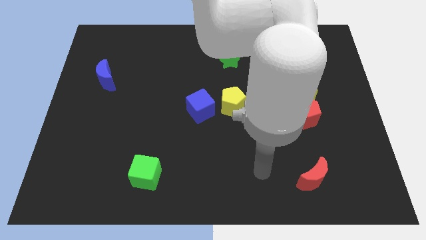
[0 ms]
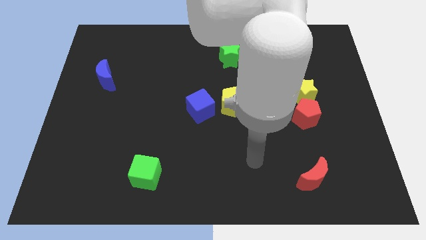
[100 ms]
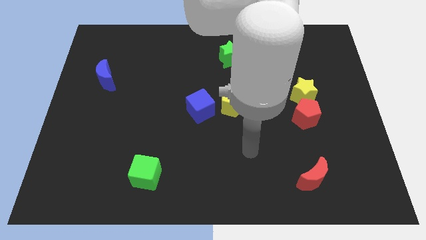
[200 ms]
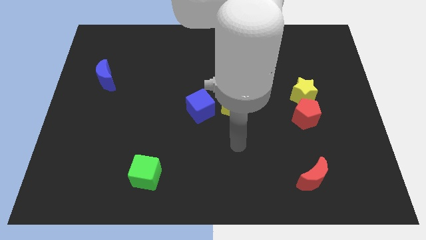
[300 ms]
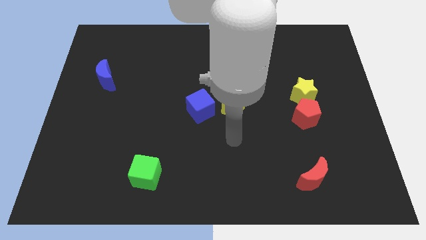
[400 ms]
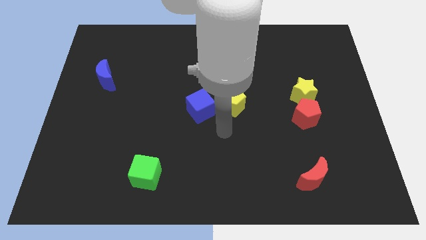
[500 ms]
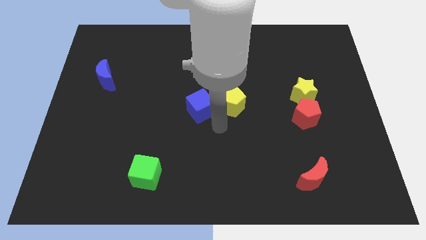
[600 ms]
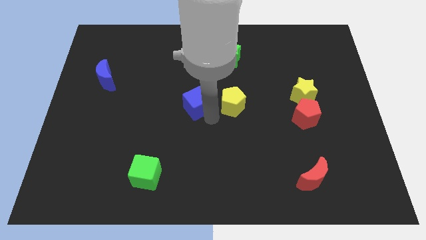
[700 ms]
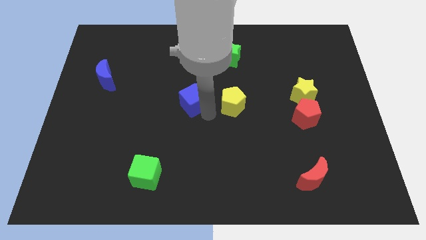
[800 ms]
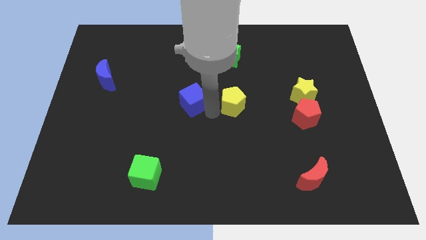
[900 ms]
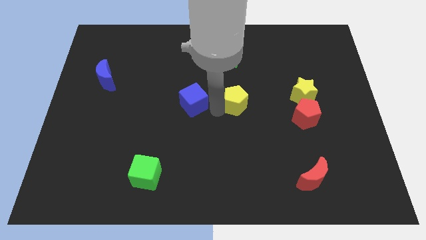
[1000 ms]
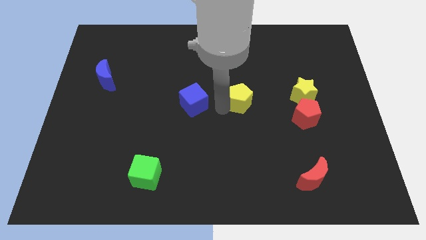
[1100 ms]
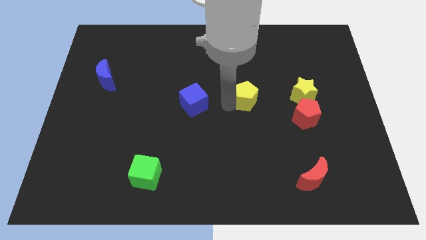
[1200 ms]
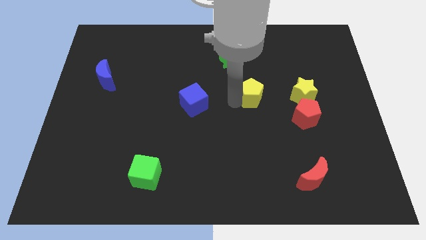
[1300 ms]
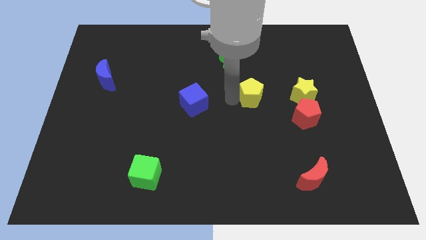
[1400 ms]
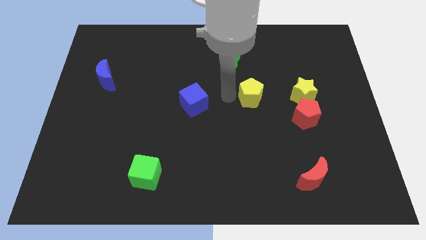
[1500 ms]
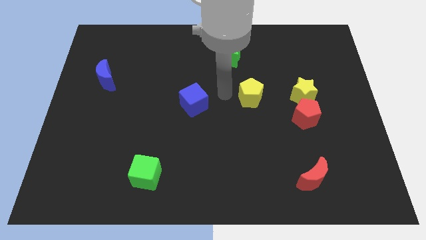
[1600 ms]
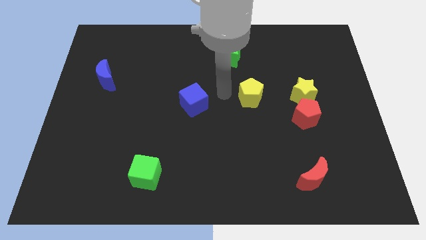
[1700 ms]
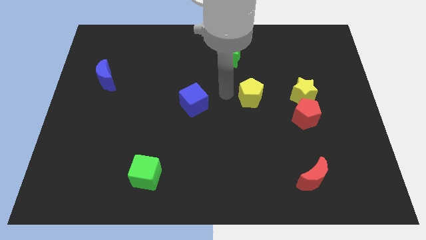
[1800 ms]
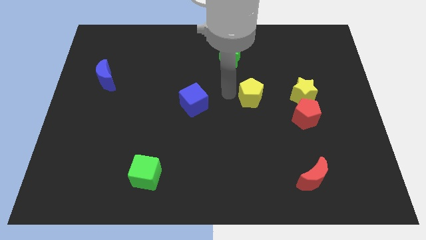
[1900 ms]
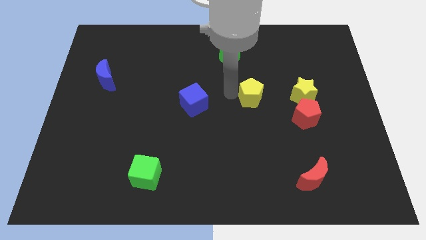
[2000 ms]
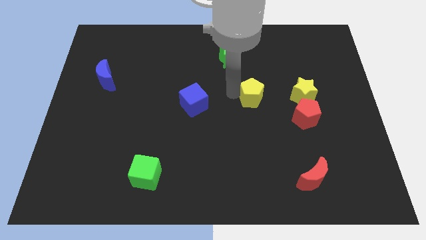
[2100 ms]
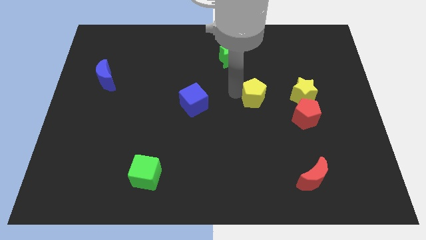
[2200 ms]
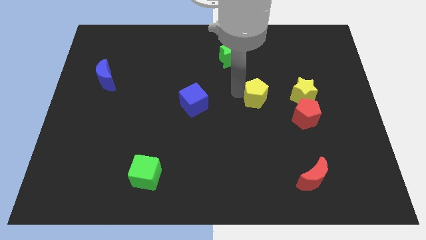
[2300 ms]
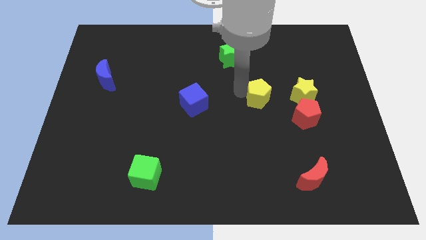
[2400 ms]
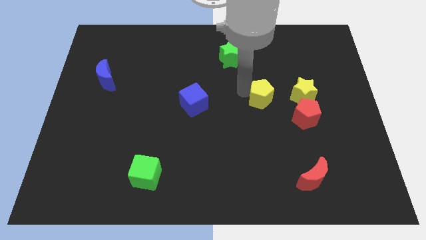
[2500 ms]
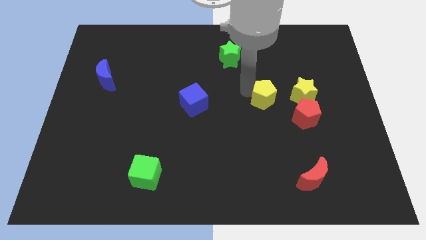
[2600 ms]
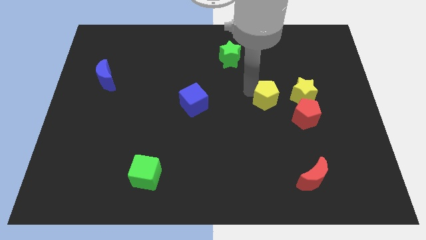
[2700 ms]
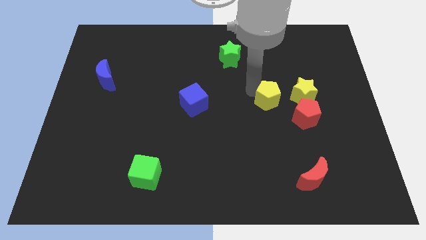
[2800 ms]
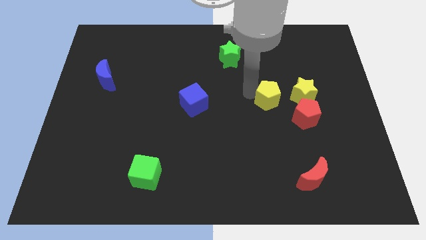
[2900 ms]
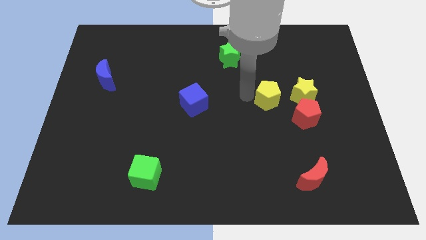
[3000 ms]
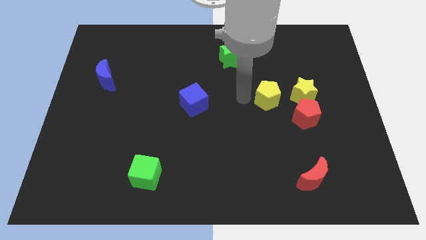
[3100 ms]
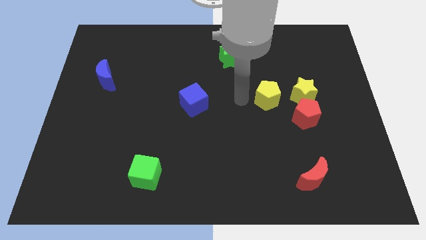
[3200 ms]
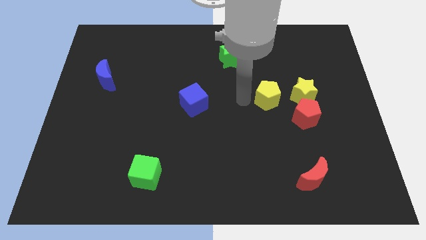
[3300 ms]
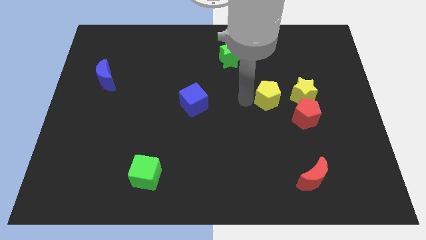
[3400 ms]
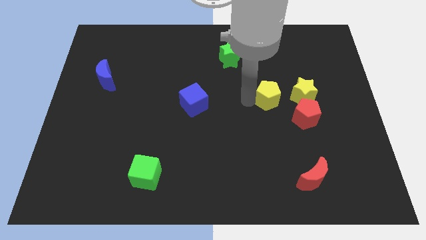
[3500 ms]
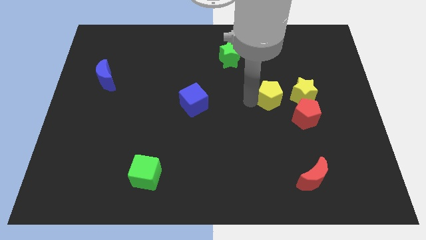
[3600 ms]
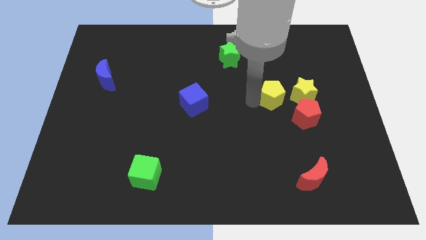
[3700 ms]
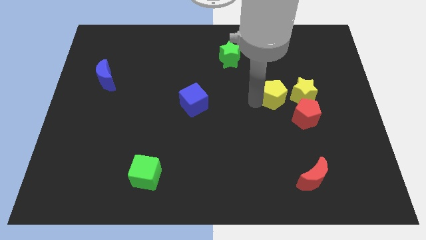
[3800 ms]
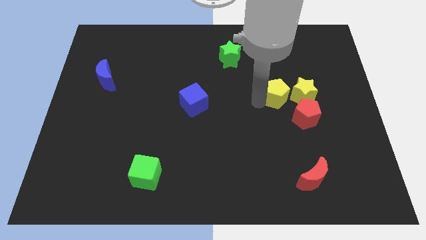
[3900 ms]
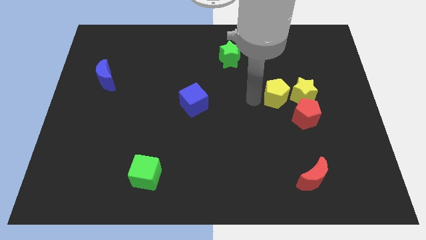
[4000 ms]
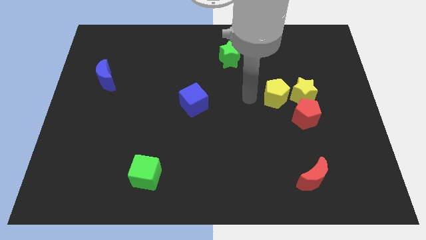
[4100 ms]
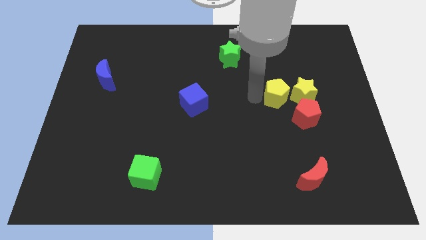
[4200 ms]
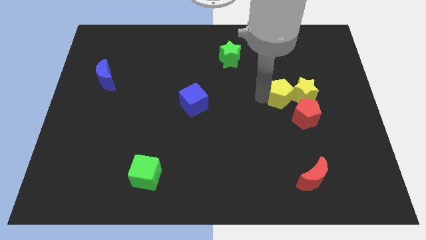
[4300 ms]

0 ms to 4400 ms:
push the yellow pentagon to the yellow star

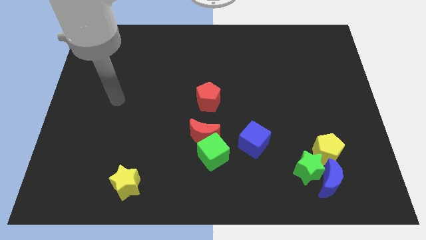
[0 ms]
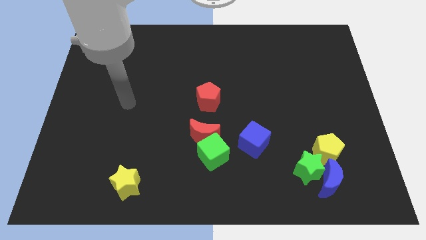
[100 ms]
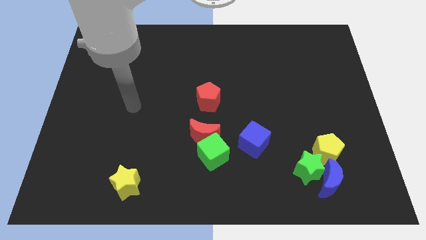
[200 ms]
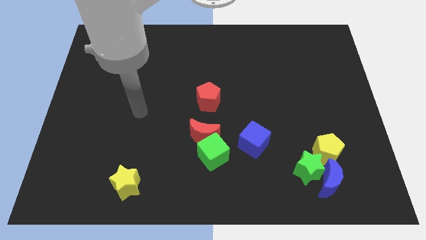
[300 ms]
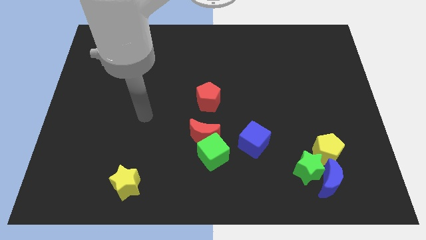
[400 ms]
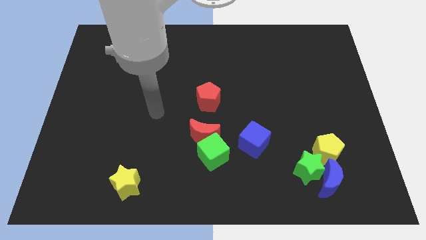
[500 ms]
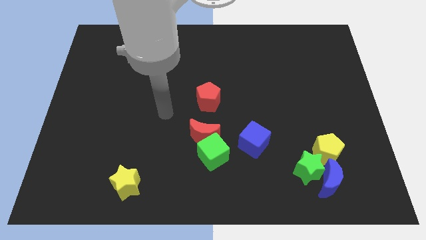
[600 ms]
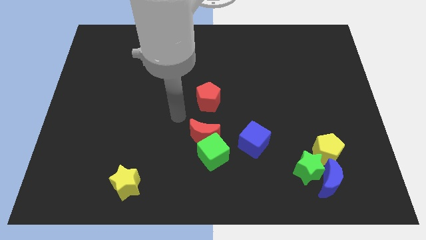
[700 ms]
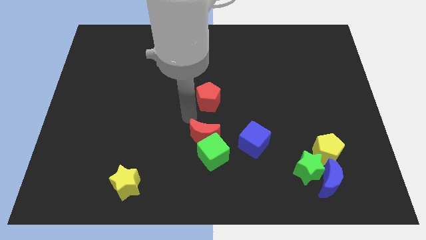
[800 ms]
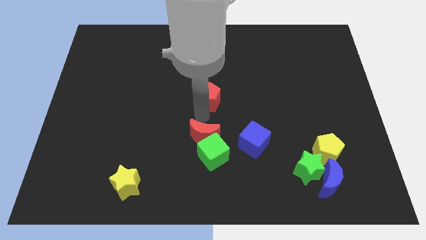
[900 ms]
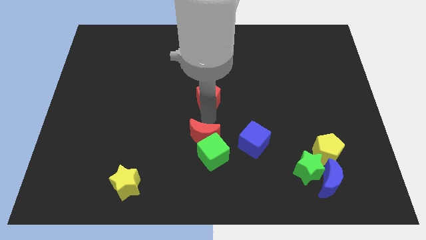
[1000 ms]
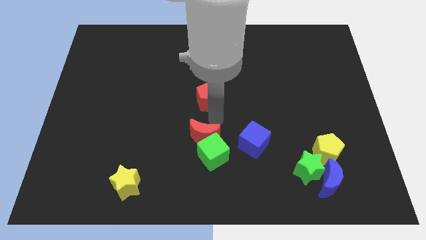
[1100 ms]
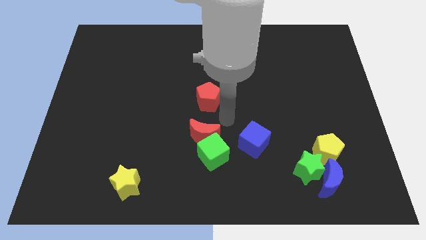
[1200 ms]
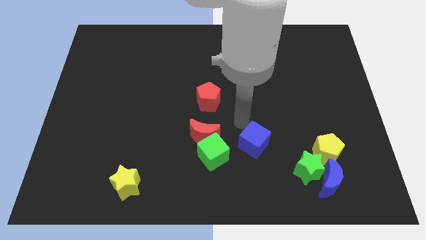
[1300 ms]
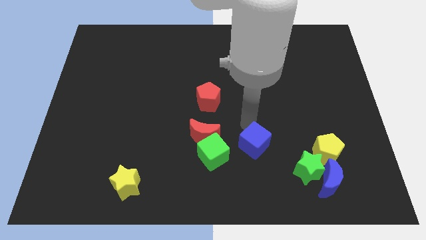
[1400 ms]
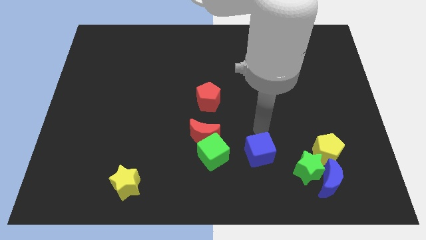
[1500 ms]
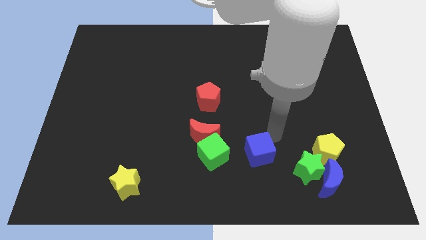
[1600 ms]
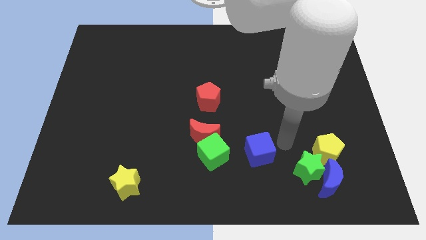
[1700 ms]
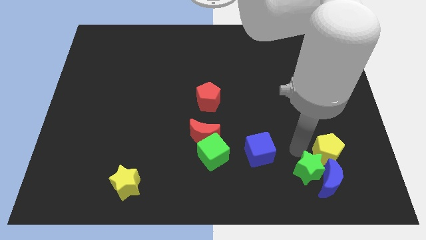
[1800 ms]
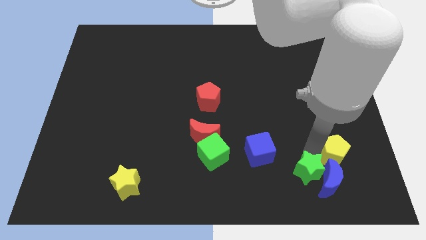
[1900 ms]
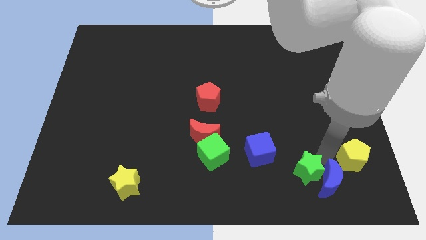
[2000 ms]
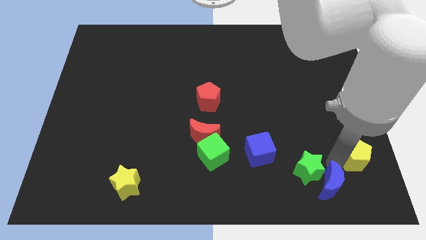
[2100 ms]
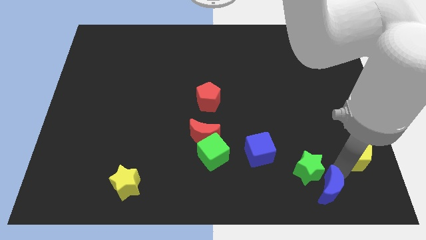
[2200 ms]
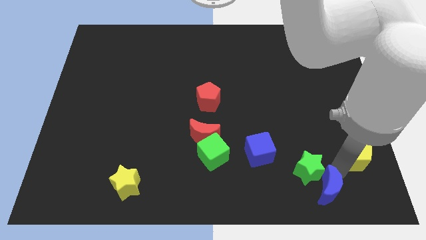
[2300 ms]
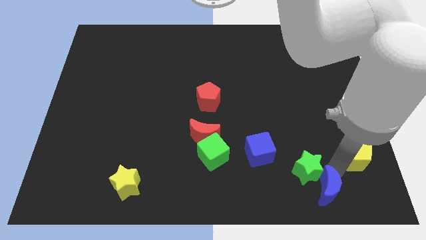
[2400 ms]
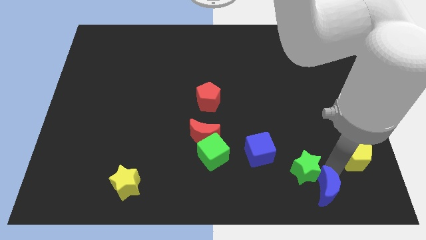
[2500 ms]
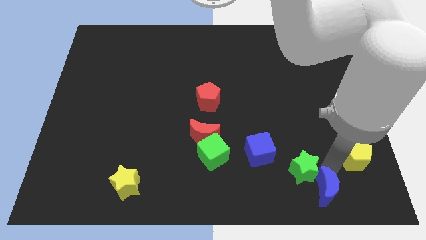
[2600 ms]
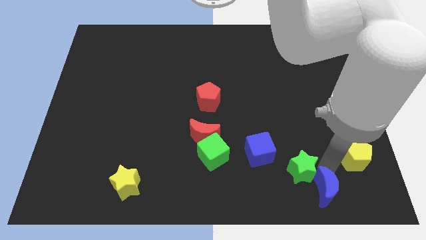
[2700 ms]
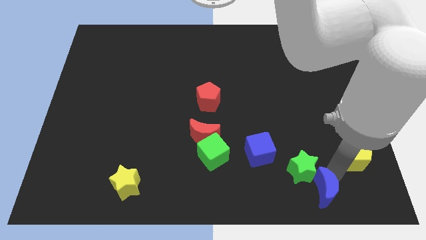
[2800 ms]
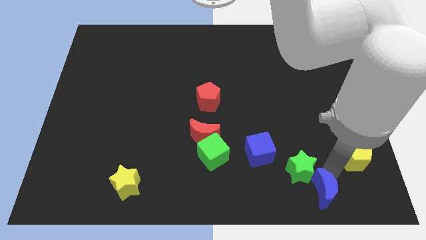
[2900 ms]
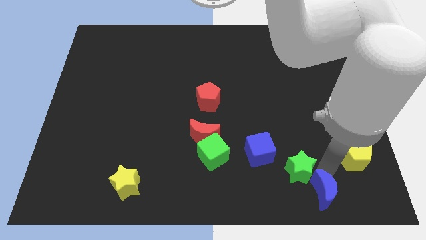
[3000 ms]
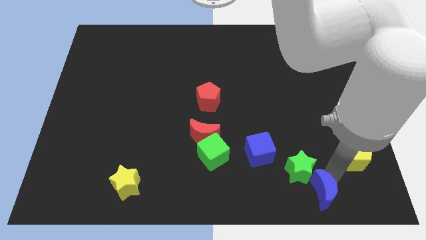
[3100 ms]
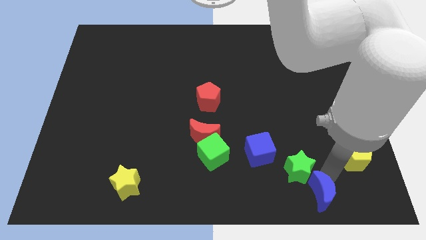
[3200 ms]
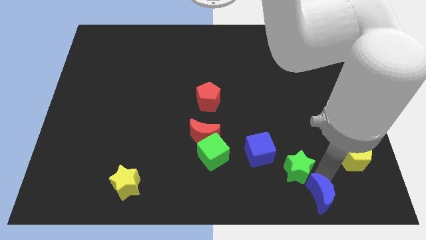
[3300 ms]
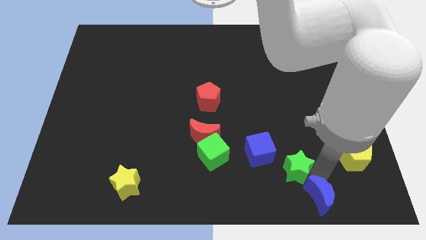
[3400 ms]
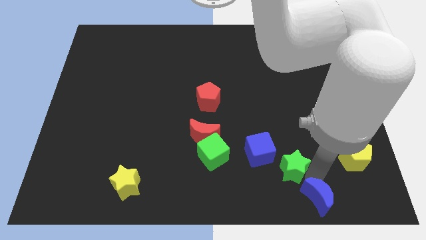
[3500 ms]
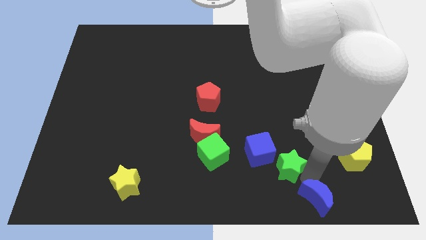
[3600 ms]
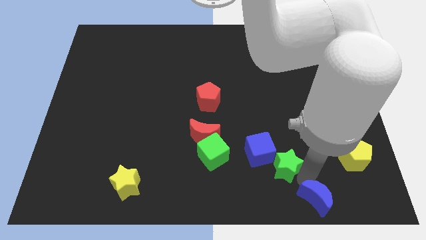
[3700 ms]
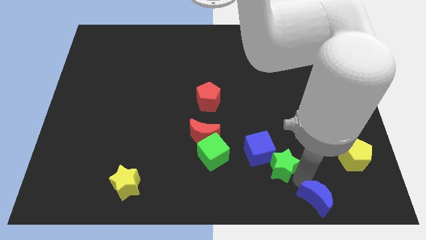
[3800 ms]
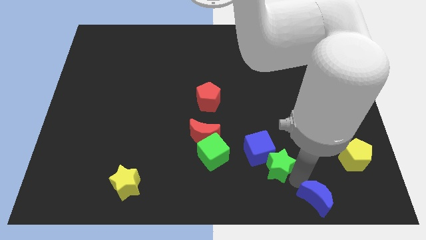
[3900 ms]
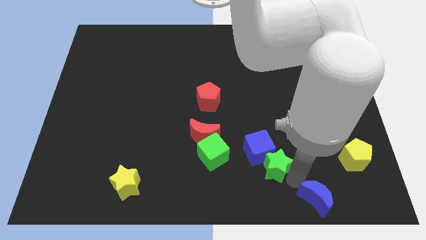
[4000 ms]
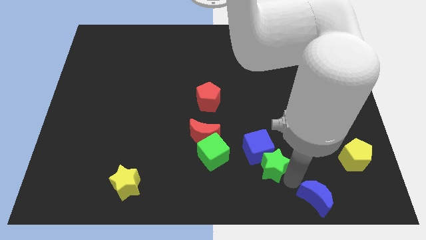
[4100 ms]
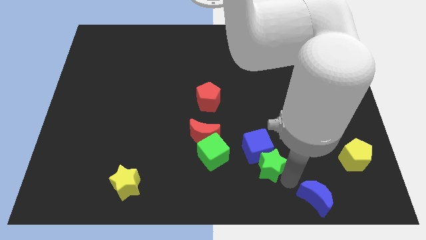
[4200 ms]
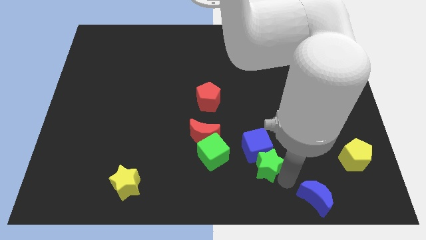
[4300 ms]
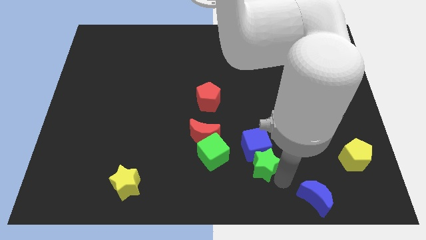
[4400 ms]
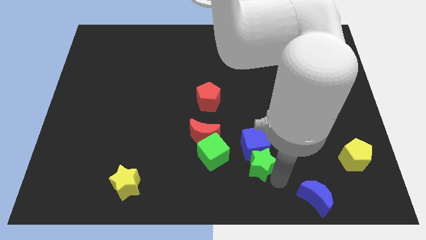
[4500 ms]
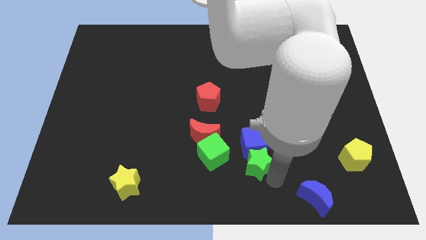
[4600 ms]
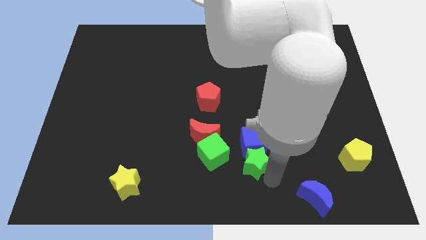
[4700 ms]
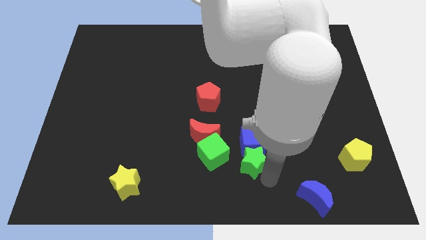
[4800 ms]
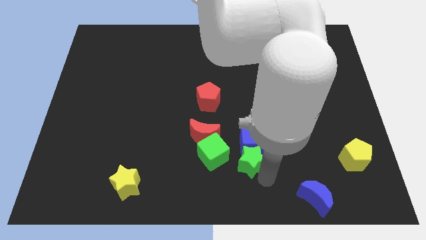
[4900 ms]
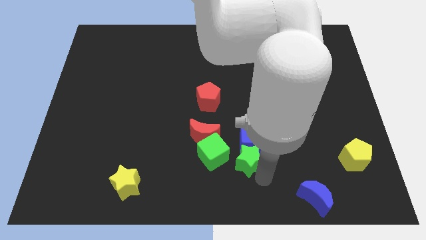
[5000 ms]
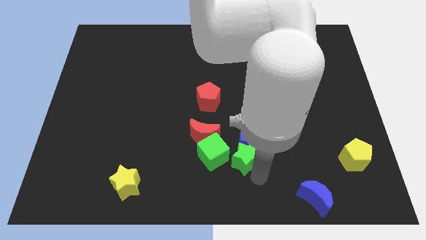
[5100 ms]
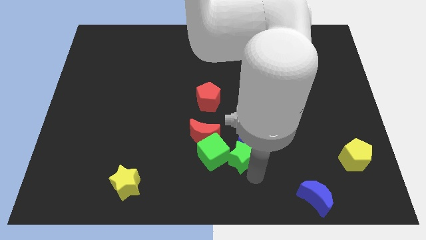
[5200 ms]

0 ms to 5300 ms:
push the green star to the green cube
